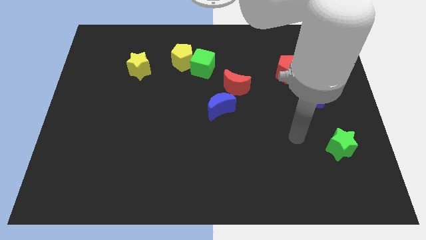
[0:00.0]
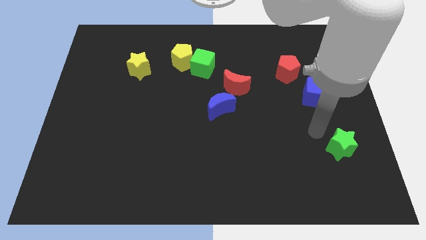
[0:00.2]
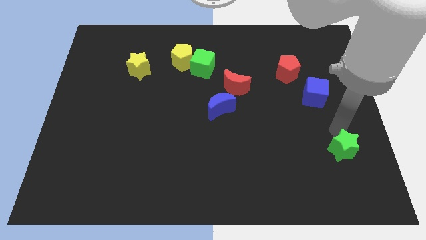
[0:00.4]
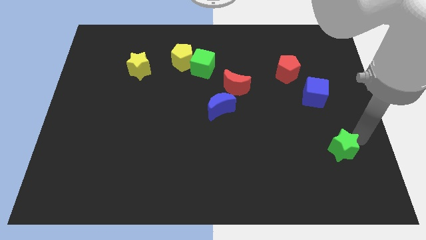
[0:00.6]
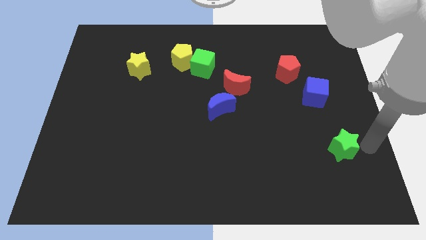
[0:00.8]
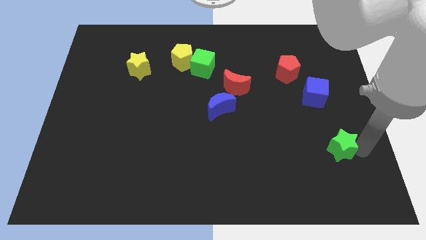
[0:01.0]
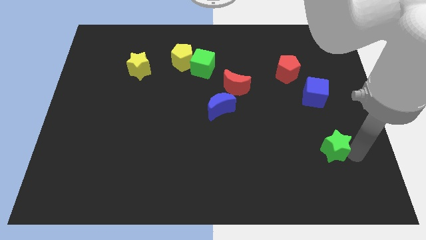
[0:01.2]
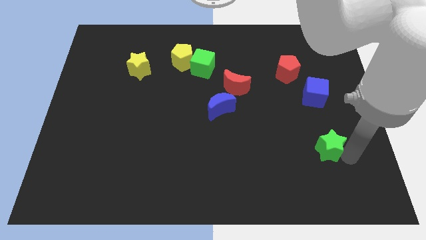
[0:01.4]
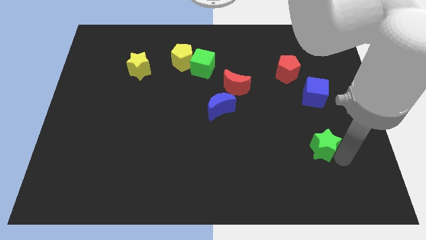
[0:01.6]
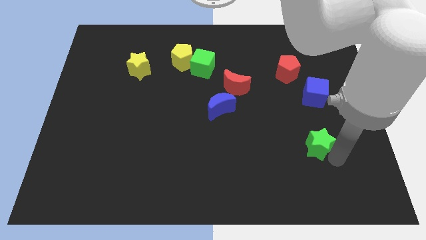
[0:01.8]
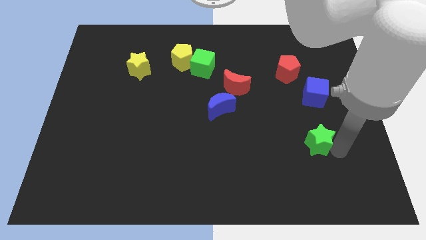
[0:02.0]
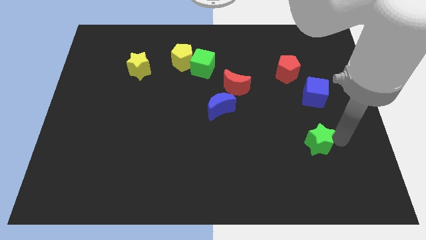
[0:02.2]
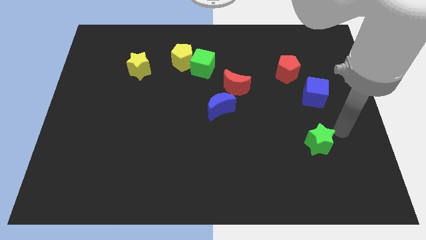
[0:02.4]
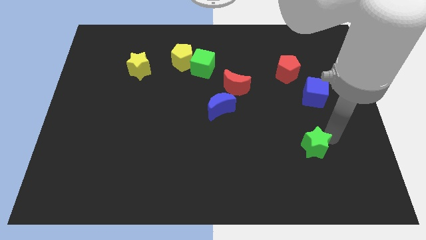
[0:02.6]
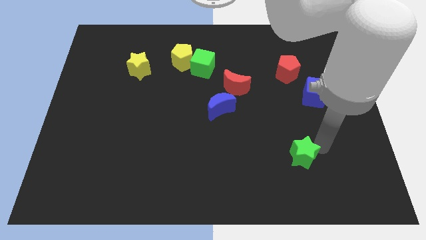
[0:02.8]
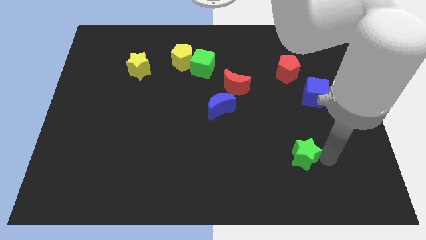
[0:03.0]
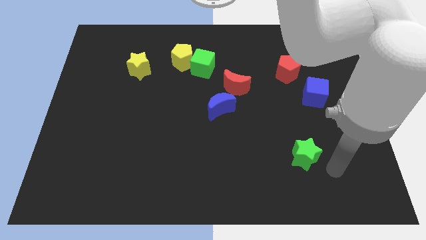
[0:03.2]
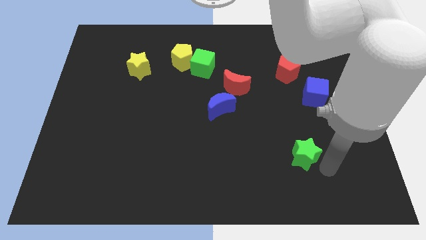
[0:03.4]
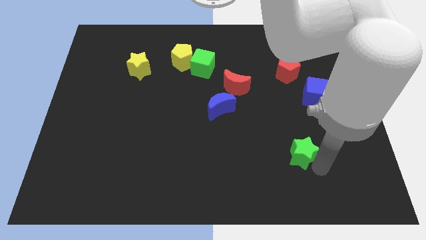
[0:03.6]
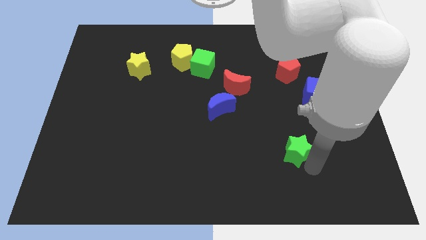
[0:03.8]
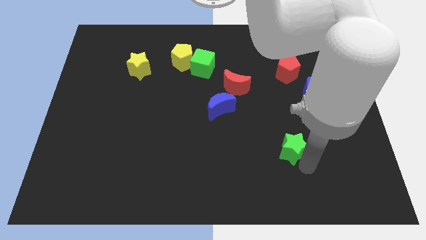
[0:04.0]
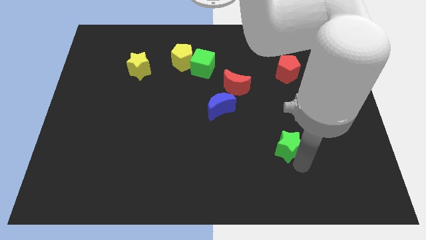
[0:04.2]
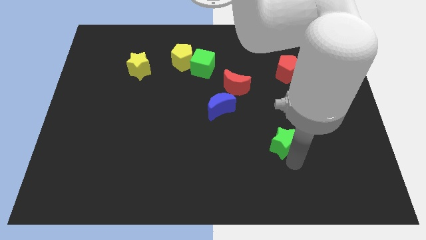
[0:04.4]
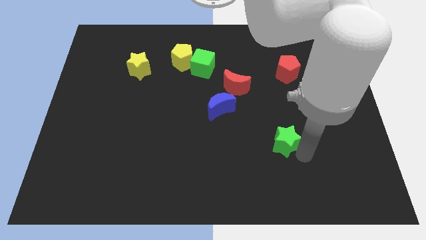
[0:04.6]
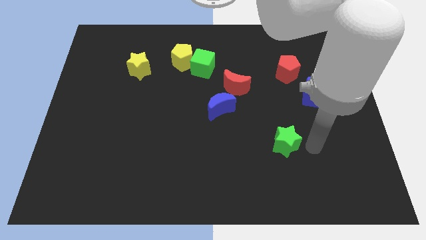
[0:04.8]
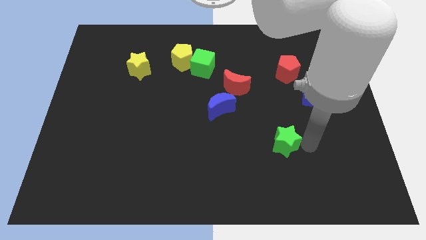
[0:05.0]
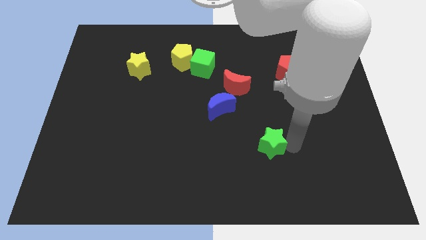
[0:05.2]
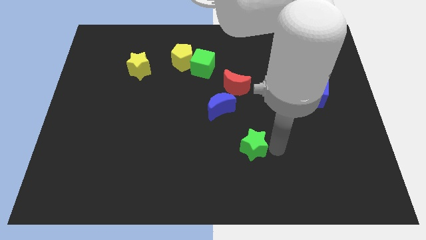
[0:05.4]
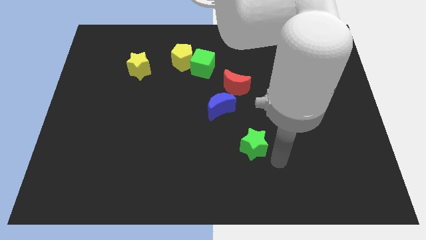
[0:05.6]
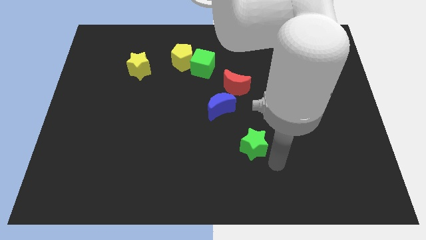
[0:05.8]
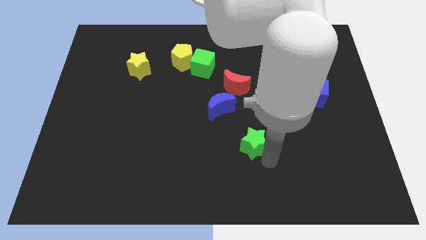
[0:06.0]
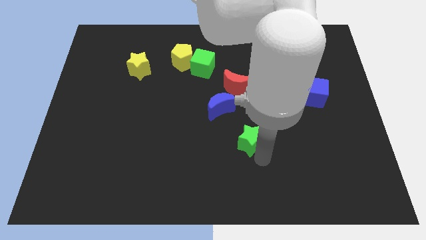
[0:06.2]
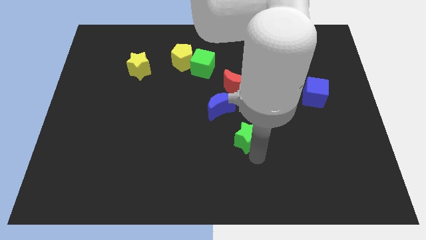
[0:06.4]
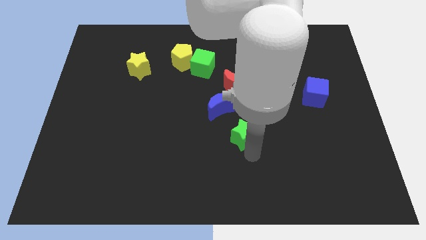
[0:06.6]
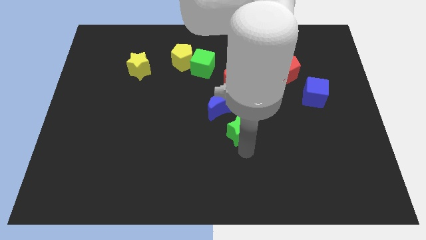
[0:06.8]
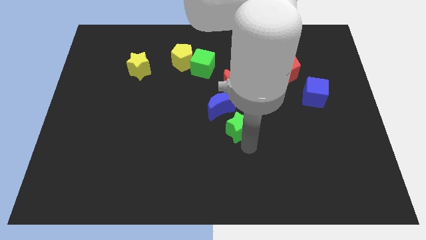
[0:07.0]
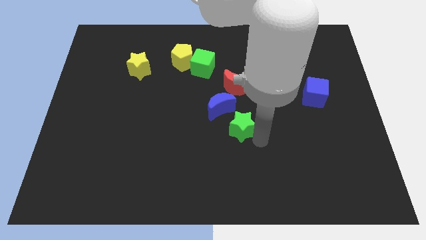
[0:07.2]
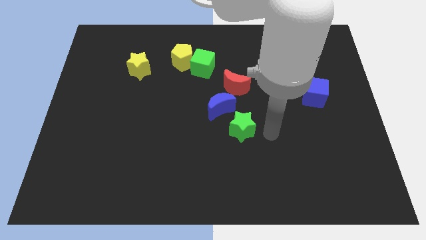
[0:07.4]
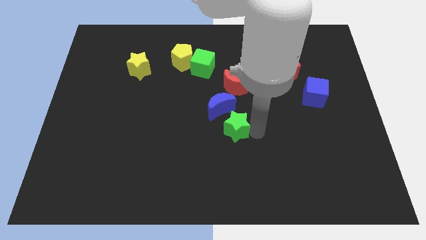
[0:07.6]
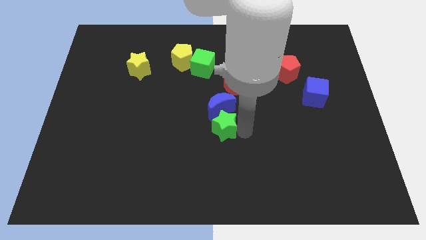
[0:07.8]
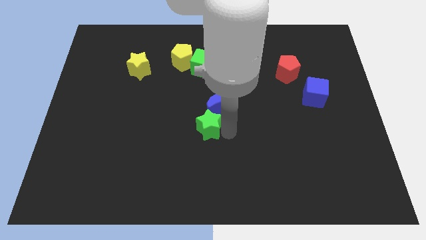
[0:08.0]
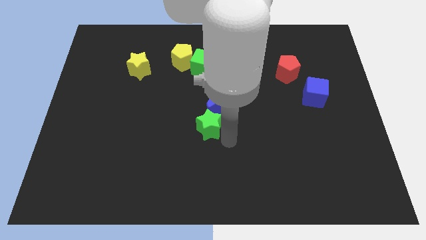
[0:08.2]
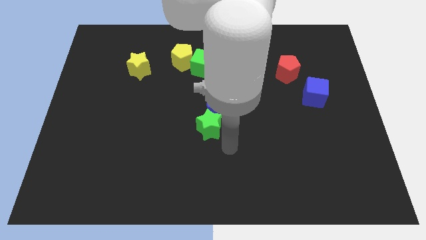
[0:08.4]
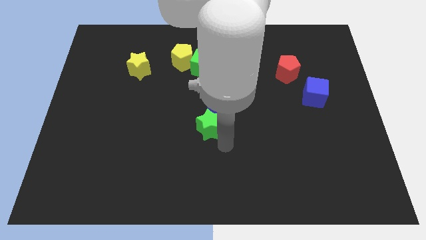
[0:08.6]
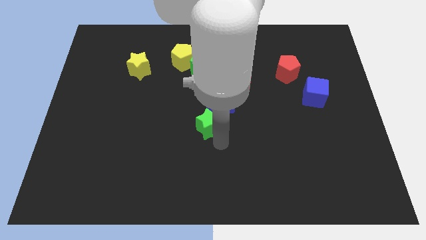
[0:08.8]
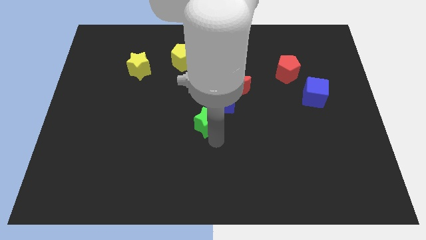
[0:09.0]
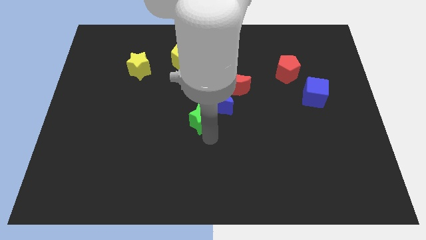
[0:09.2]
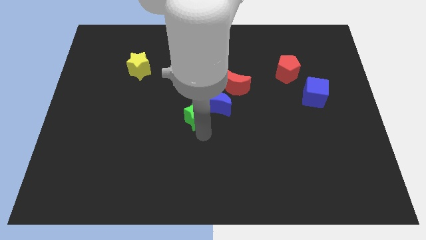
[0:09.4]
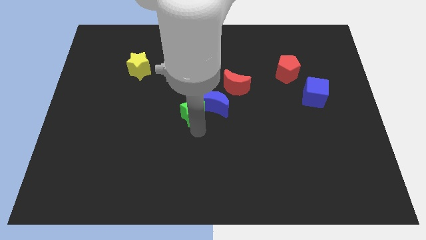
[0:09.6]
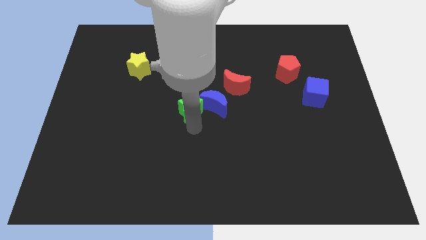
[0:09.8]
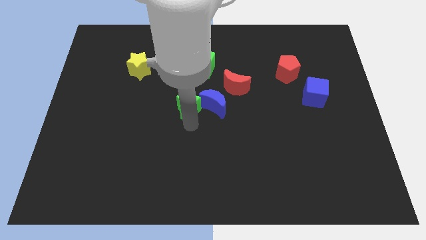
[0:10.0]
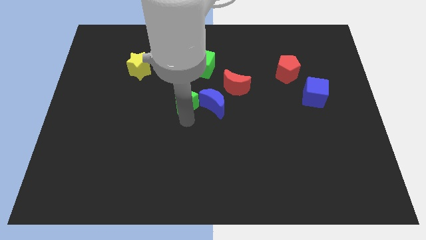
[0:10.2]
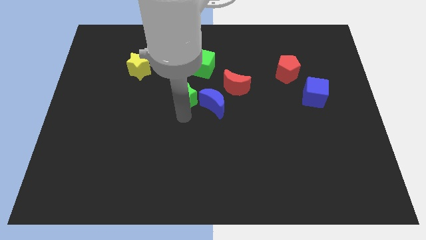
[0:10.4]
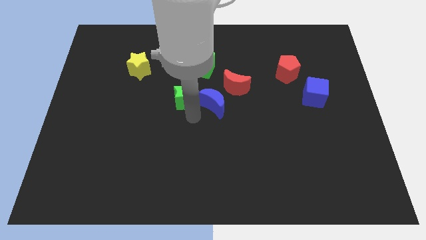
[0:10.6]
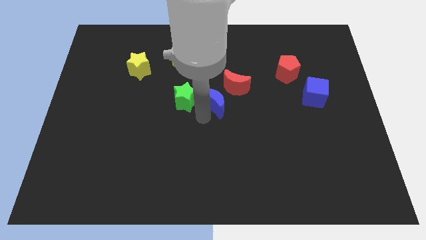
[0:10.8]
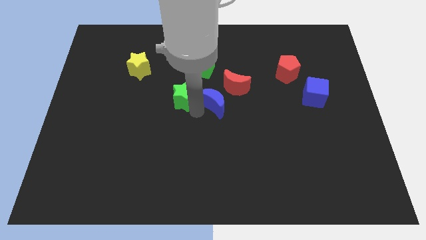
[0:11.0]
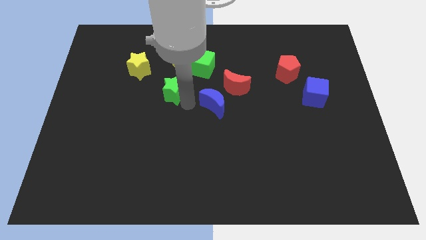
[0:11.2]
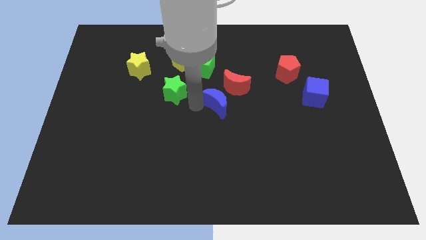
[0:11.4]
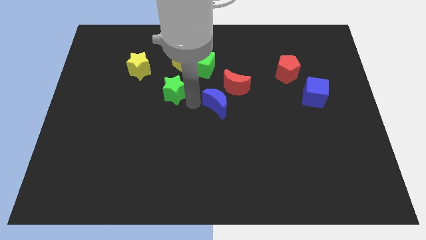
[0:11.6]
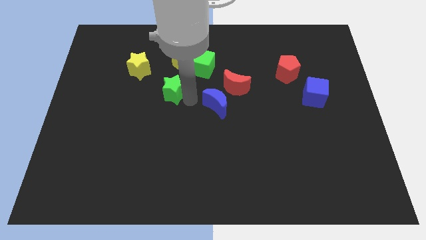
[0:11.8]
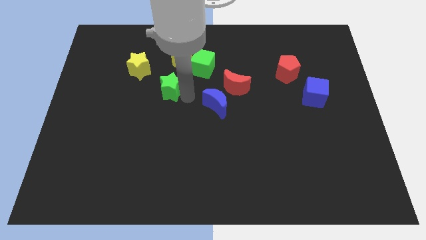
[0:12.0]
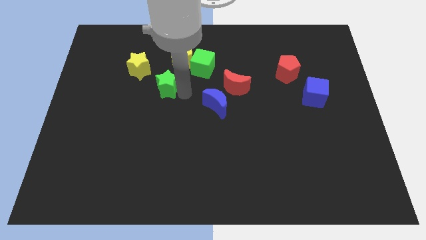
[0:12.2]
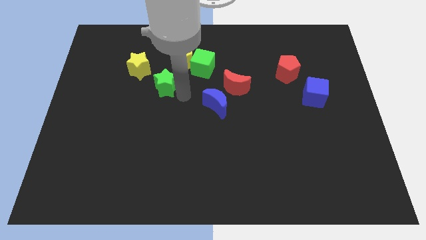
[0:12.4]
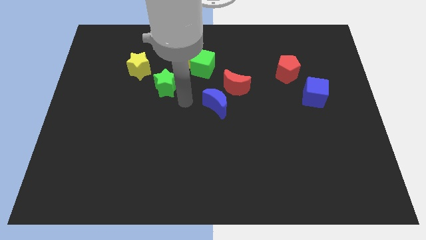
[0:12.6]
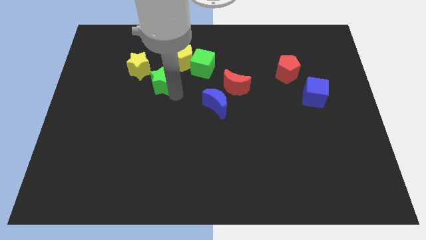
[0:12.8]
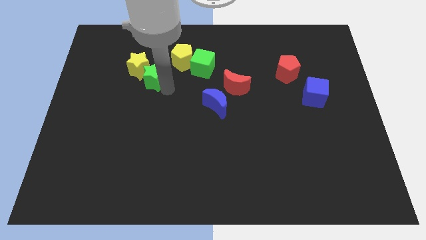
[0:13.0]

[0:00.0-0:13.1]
move the green star next to the yellow star

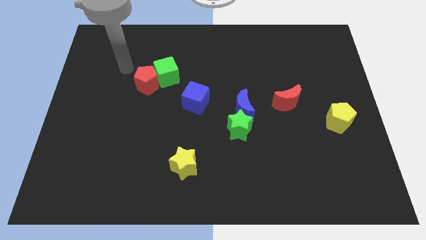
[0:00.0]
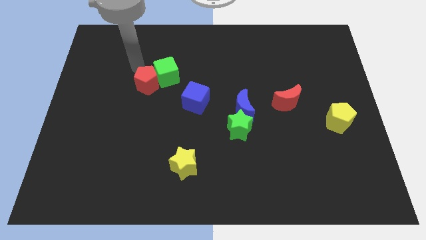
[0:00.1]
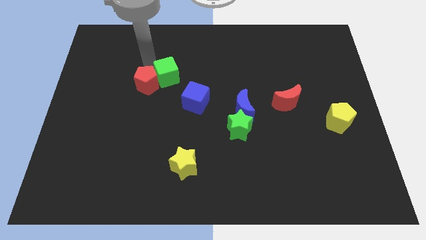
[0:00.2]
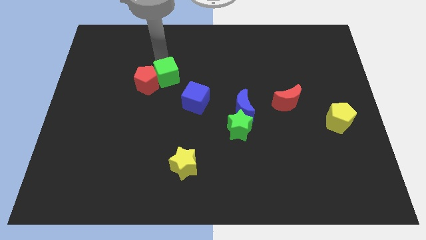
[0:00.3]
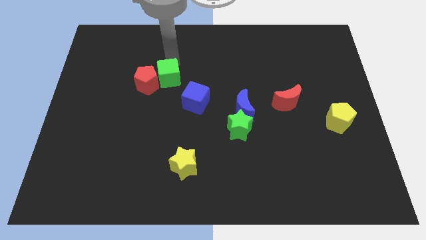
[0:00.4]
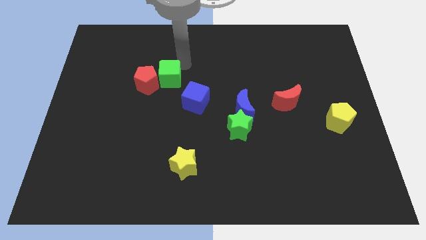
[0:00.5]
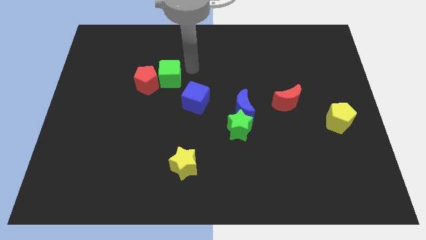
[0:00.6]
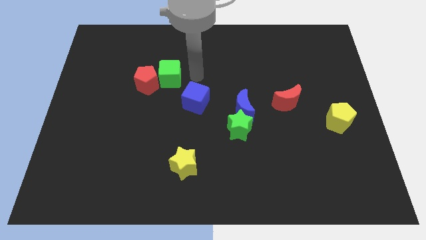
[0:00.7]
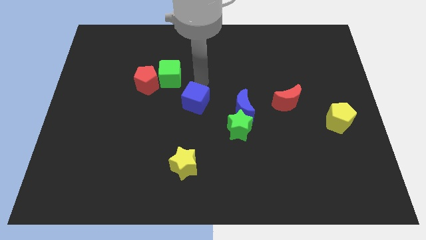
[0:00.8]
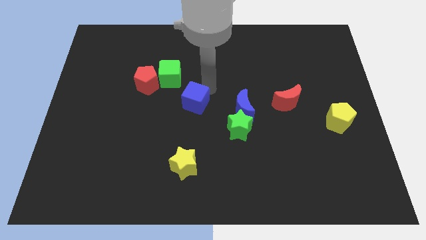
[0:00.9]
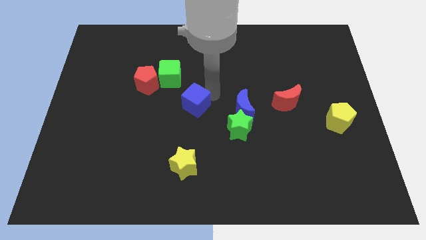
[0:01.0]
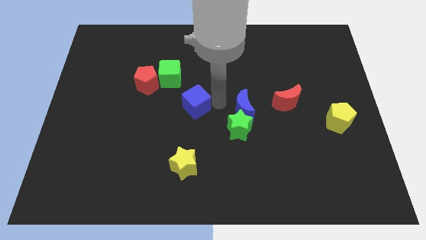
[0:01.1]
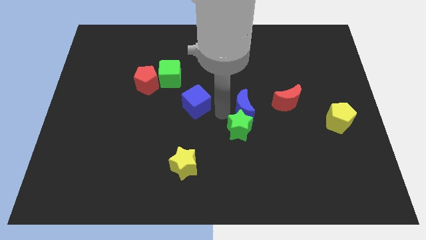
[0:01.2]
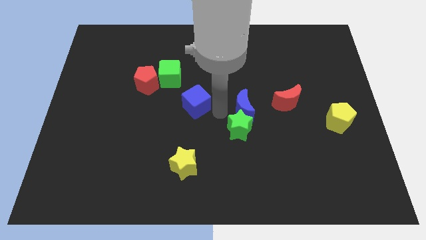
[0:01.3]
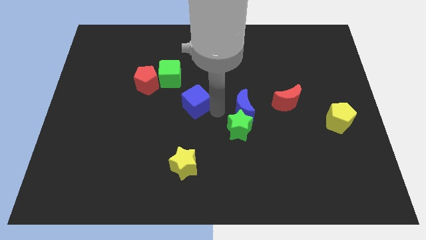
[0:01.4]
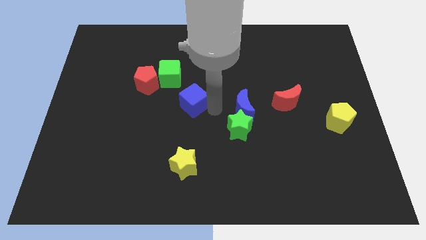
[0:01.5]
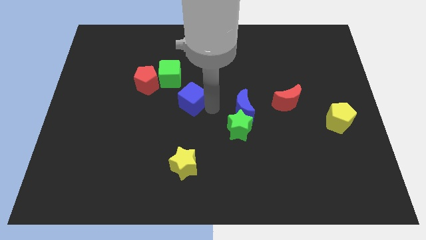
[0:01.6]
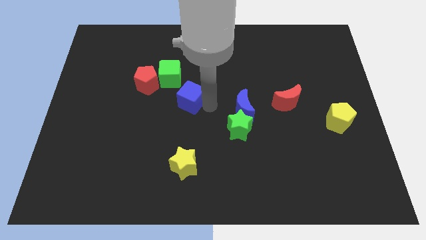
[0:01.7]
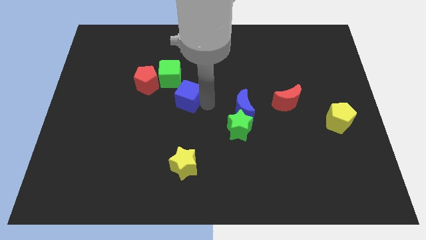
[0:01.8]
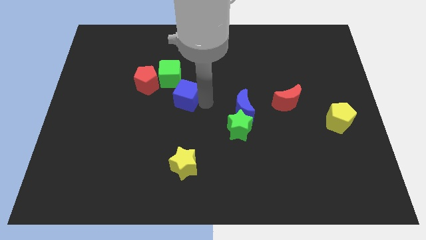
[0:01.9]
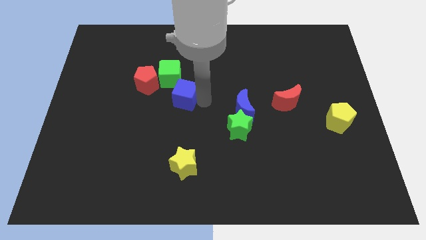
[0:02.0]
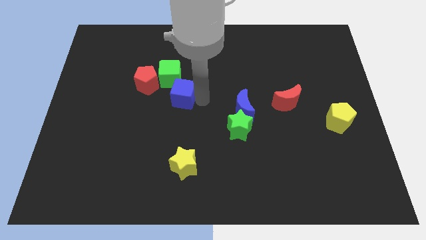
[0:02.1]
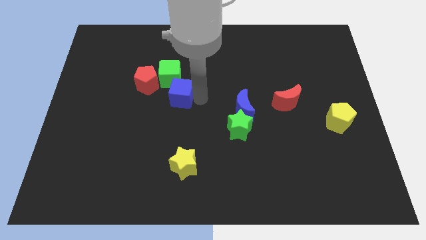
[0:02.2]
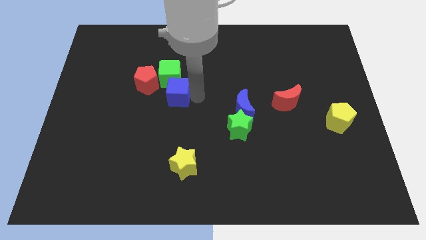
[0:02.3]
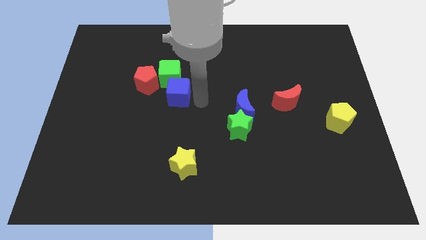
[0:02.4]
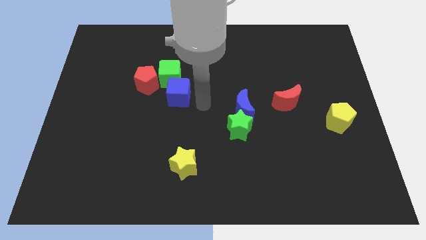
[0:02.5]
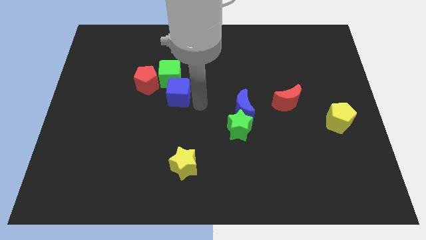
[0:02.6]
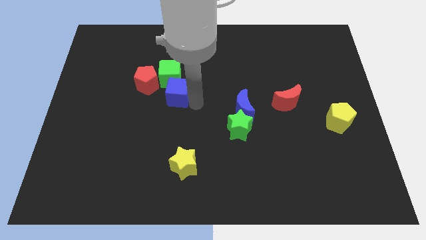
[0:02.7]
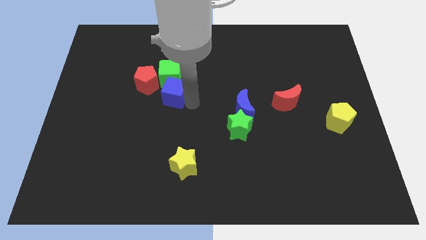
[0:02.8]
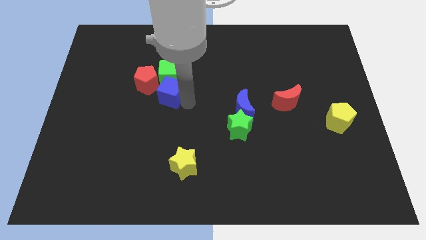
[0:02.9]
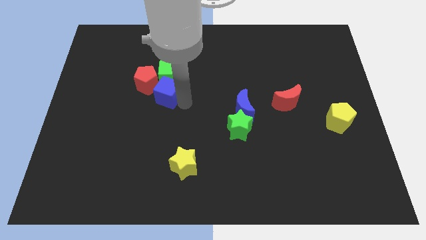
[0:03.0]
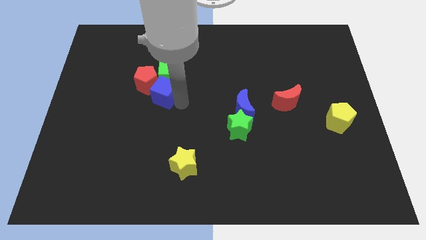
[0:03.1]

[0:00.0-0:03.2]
slide the blue cube to the red pentagon
